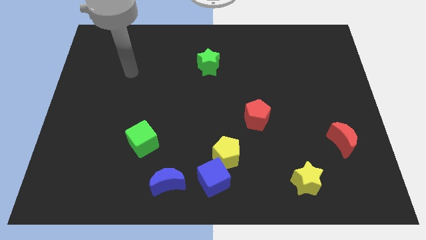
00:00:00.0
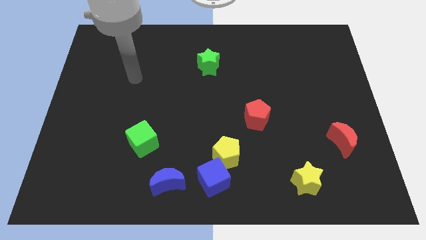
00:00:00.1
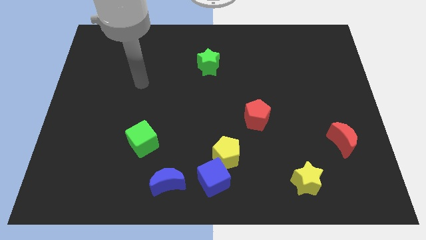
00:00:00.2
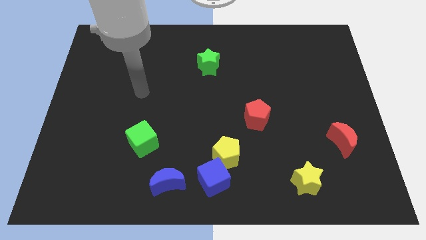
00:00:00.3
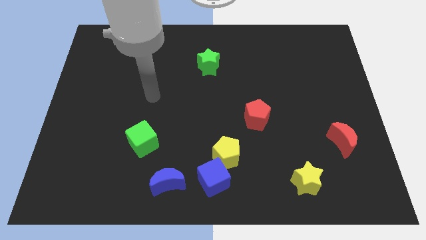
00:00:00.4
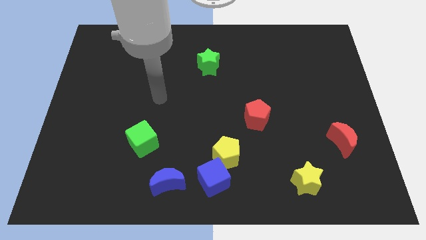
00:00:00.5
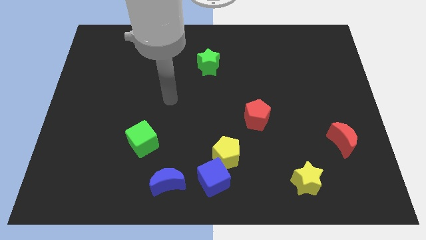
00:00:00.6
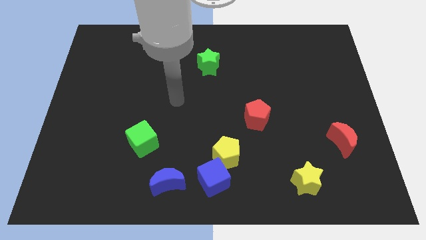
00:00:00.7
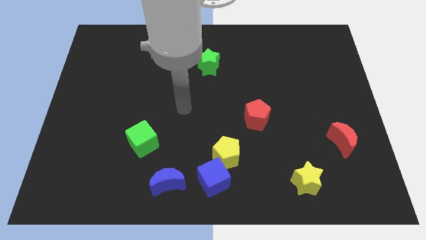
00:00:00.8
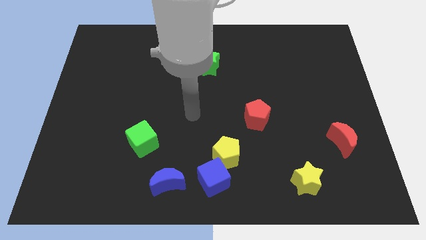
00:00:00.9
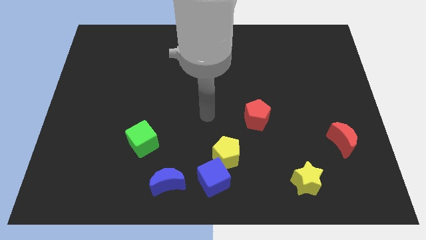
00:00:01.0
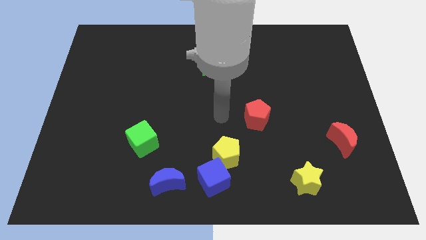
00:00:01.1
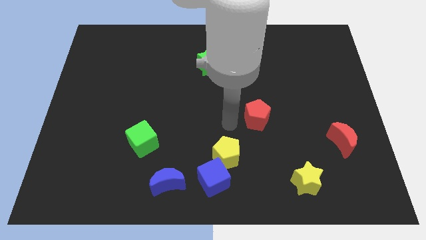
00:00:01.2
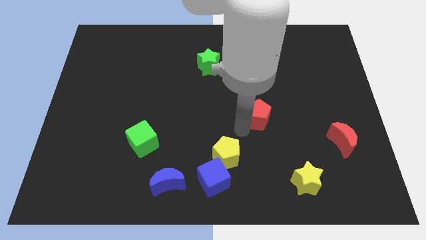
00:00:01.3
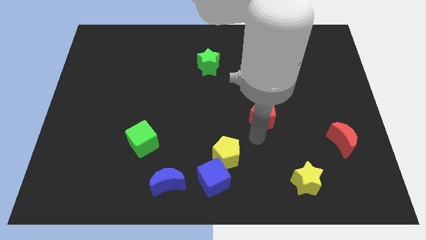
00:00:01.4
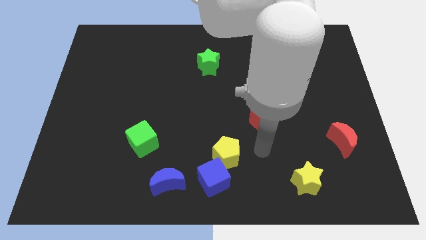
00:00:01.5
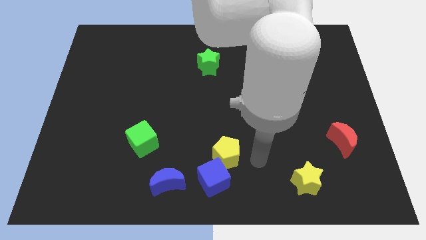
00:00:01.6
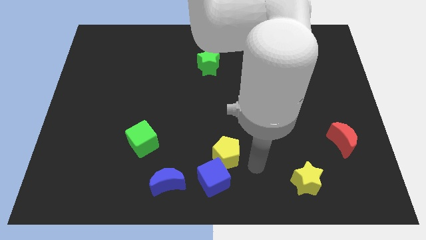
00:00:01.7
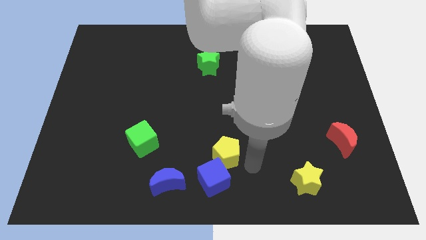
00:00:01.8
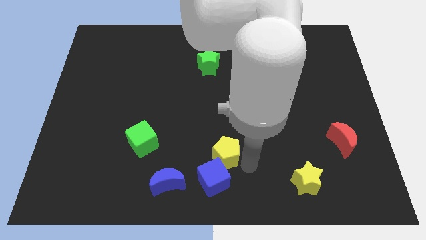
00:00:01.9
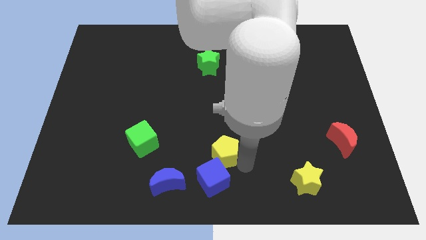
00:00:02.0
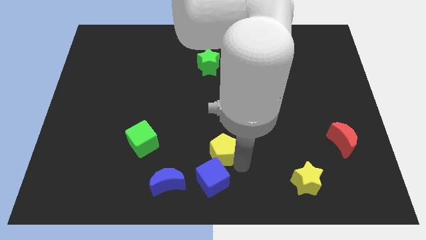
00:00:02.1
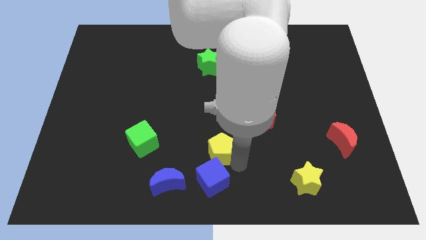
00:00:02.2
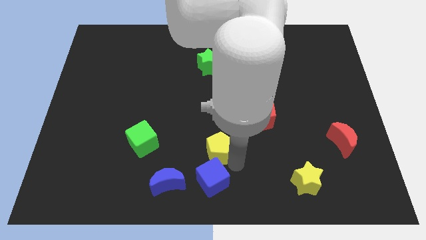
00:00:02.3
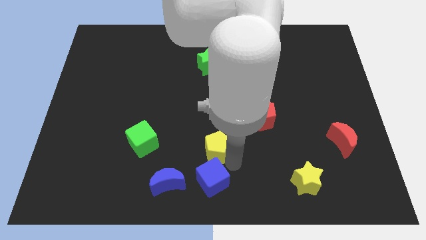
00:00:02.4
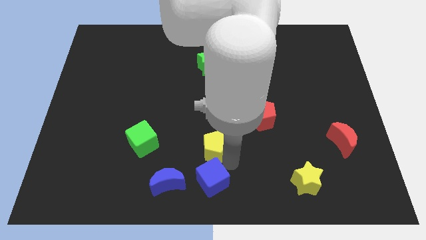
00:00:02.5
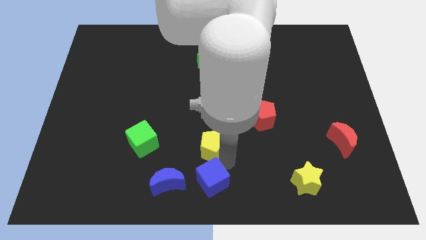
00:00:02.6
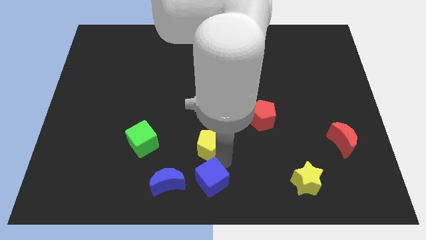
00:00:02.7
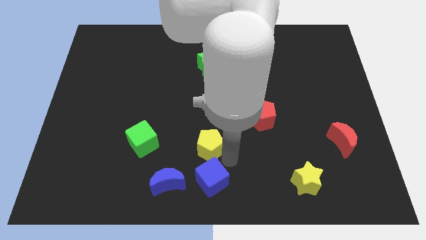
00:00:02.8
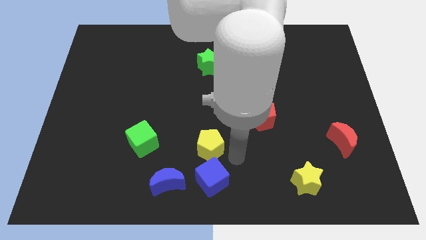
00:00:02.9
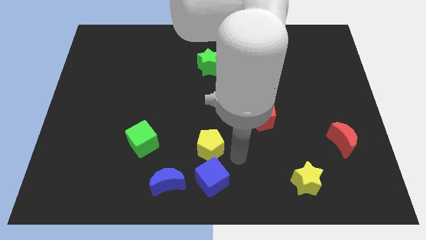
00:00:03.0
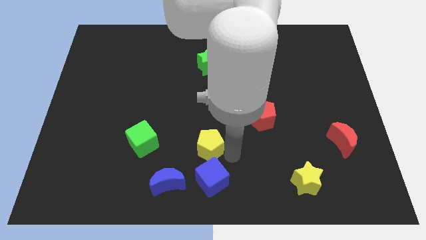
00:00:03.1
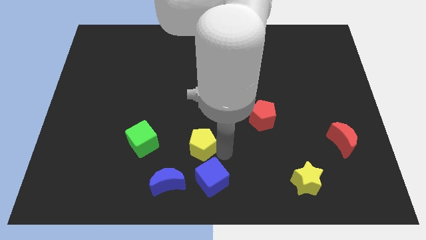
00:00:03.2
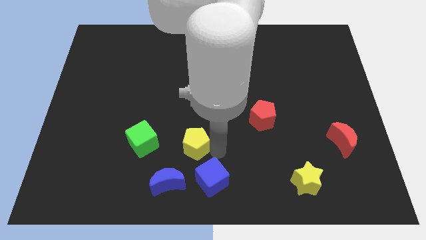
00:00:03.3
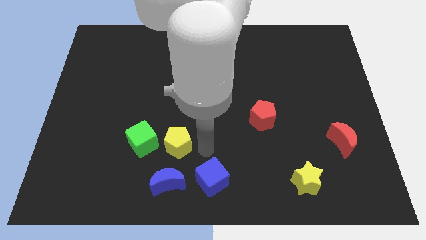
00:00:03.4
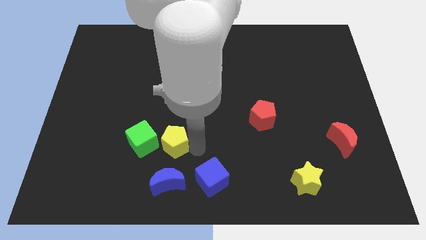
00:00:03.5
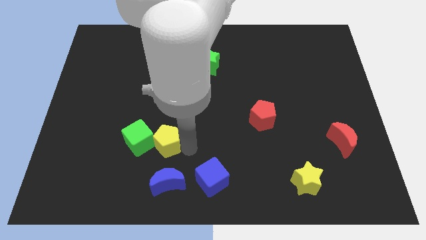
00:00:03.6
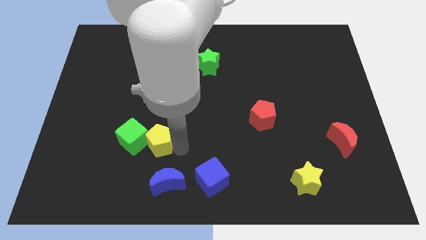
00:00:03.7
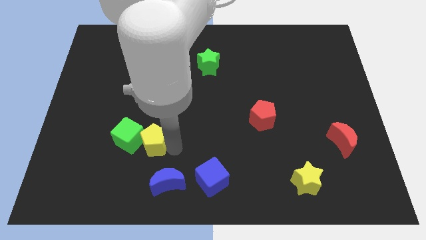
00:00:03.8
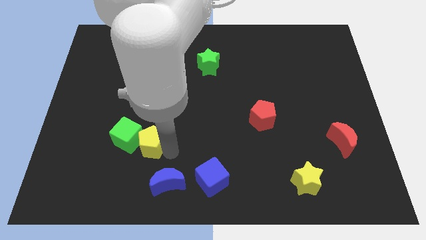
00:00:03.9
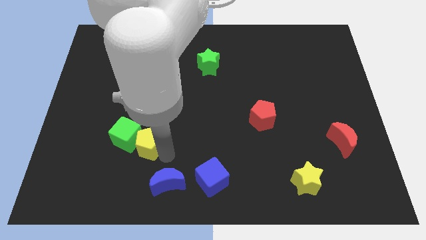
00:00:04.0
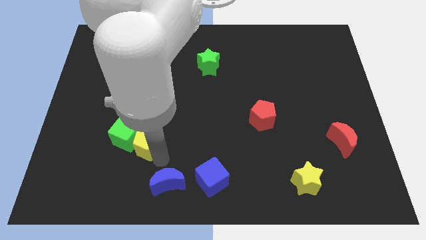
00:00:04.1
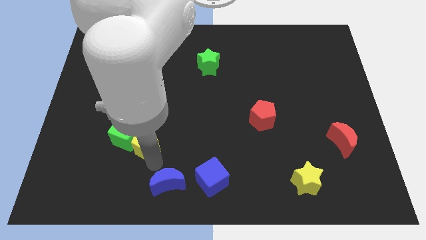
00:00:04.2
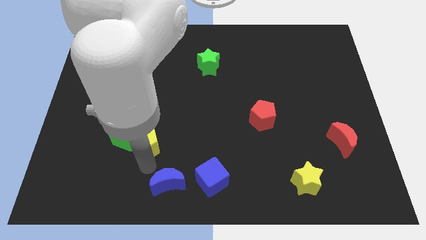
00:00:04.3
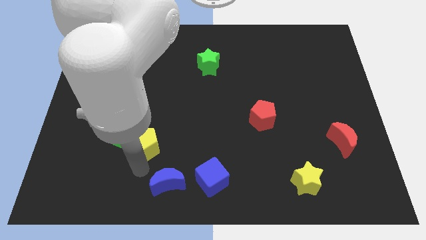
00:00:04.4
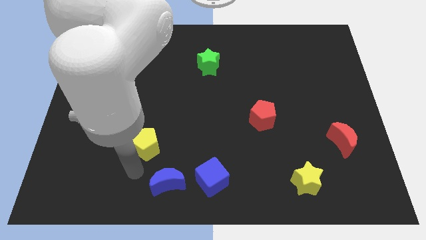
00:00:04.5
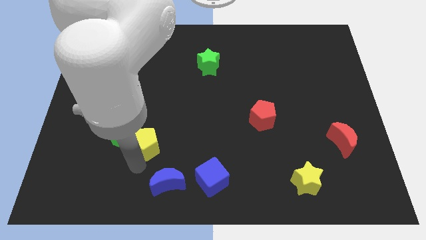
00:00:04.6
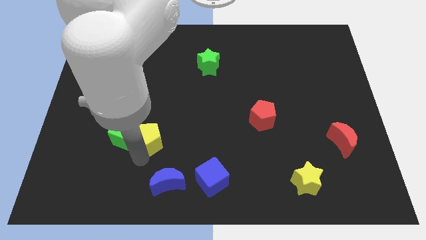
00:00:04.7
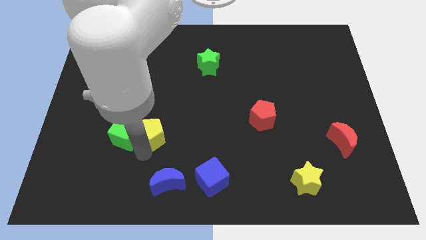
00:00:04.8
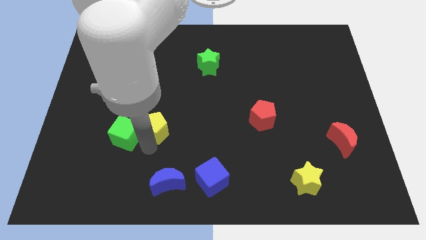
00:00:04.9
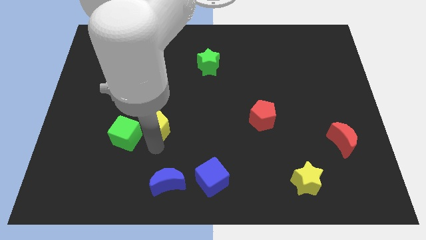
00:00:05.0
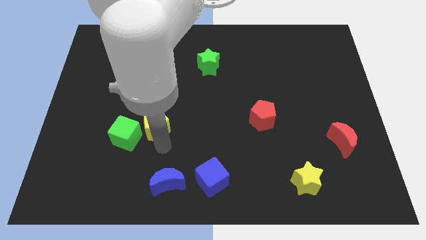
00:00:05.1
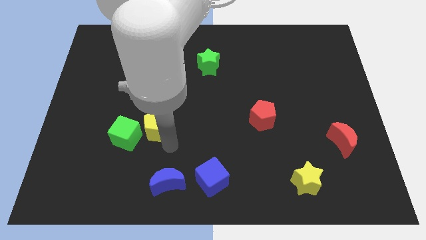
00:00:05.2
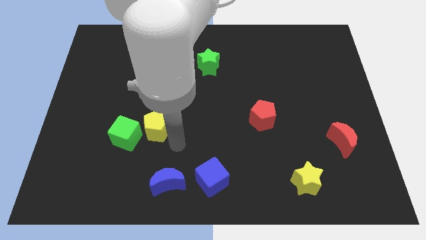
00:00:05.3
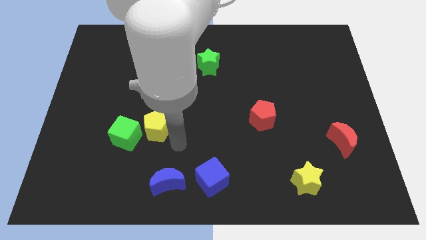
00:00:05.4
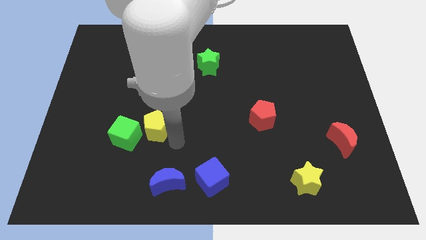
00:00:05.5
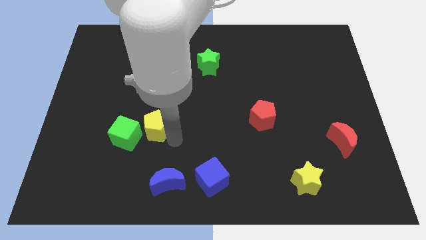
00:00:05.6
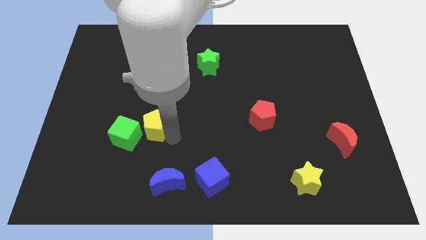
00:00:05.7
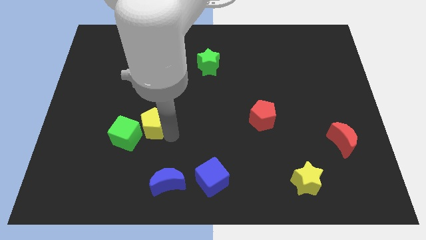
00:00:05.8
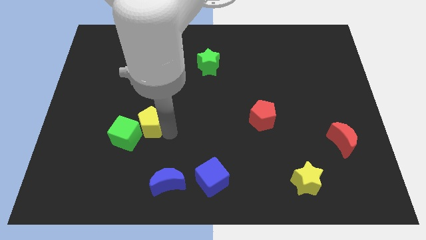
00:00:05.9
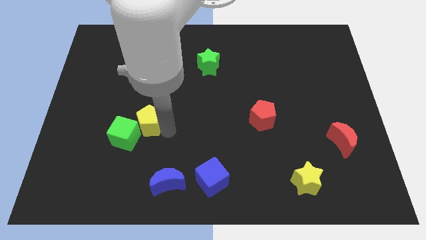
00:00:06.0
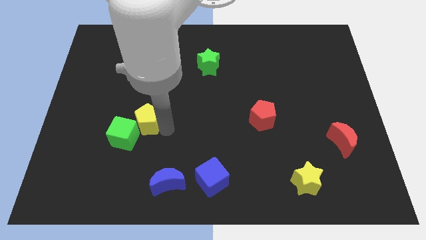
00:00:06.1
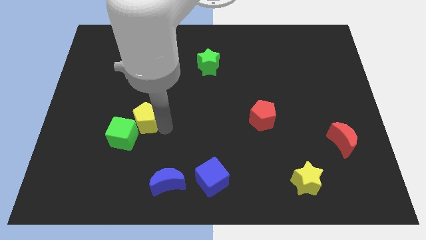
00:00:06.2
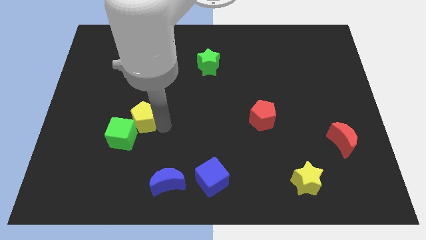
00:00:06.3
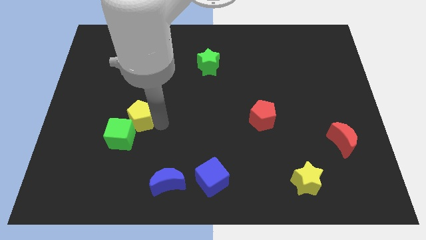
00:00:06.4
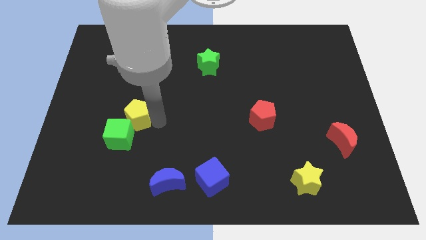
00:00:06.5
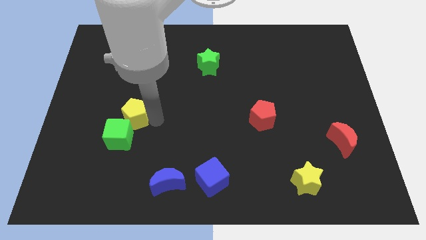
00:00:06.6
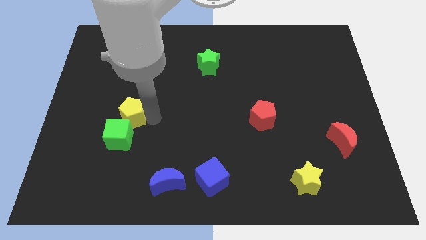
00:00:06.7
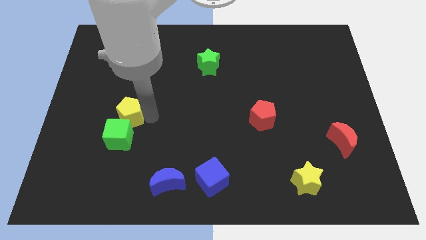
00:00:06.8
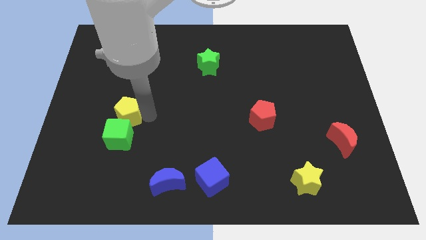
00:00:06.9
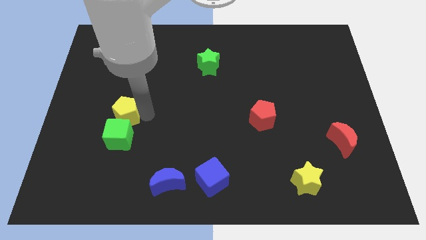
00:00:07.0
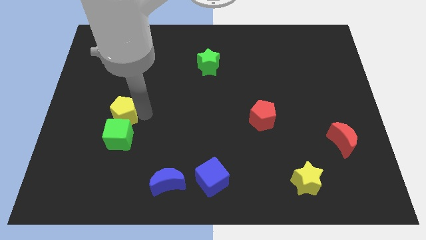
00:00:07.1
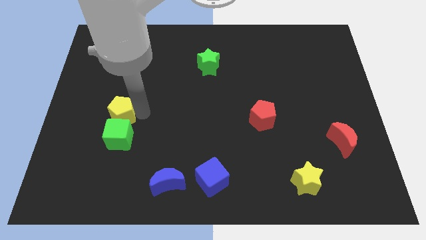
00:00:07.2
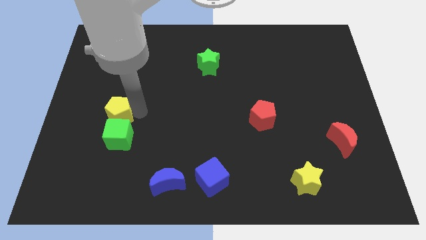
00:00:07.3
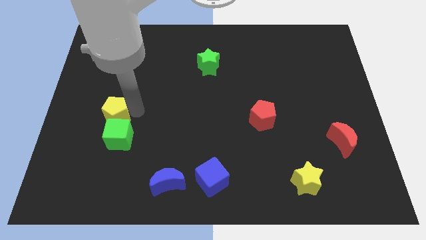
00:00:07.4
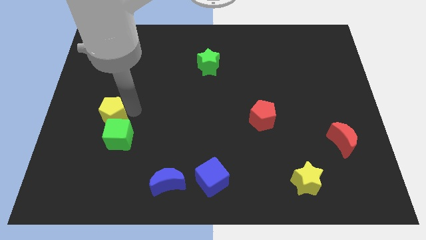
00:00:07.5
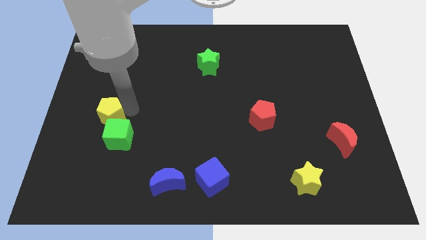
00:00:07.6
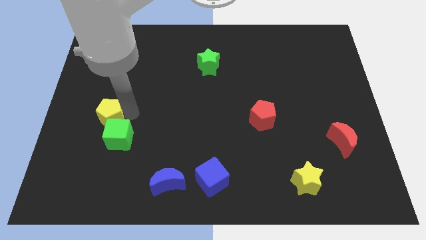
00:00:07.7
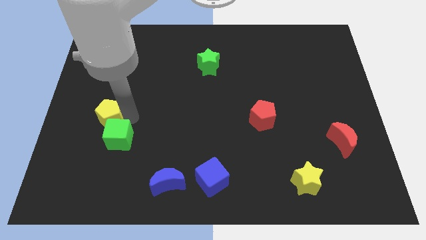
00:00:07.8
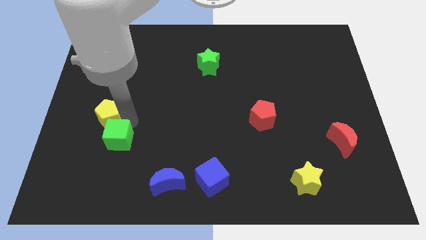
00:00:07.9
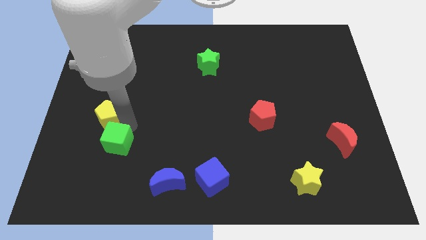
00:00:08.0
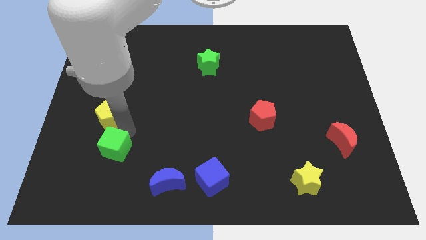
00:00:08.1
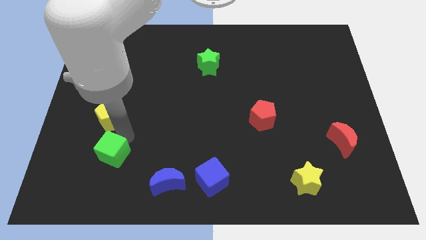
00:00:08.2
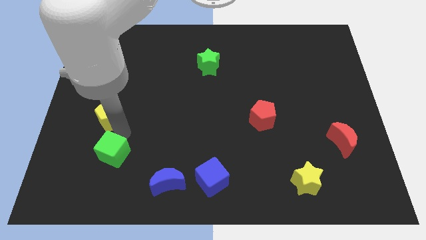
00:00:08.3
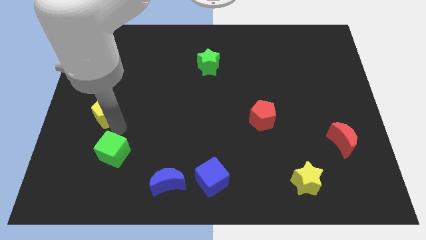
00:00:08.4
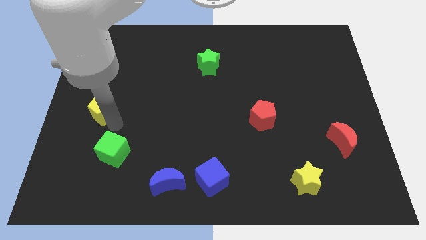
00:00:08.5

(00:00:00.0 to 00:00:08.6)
slide the yellow pentagon to the center left
